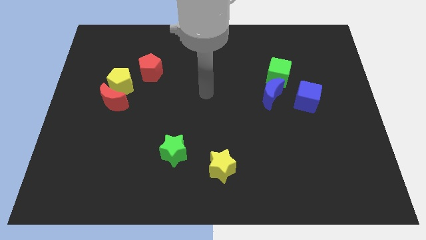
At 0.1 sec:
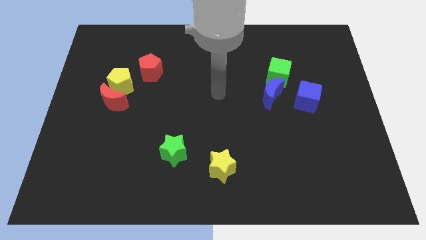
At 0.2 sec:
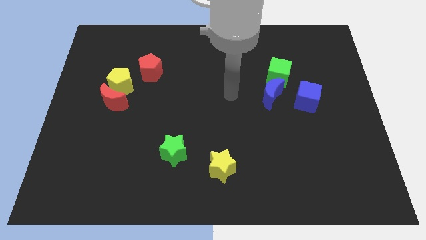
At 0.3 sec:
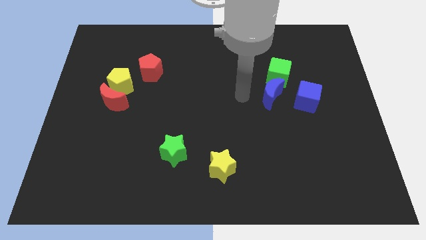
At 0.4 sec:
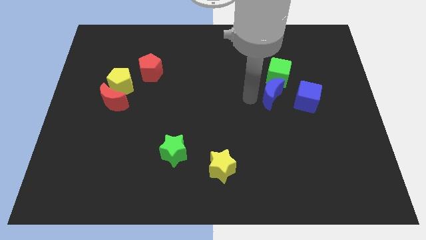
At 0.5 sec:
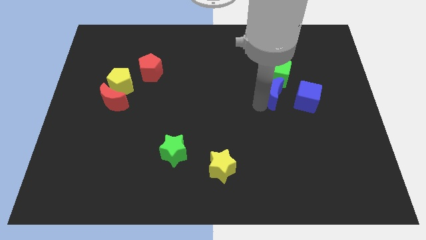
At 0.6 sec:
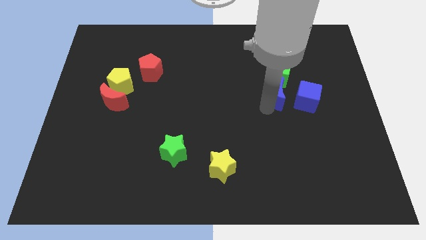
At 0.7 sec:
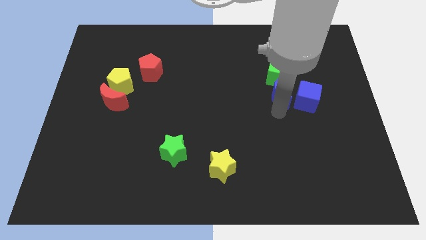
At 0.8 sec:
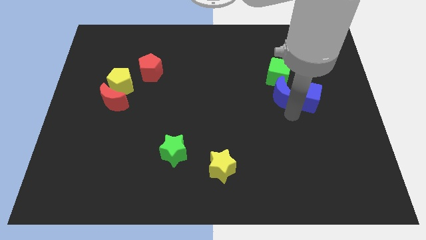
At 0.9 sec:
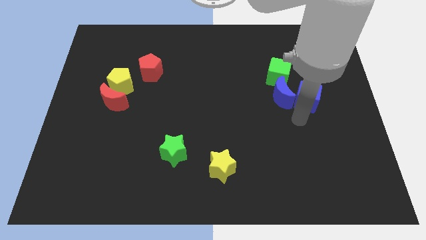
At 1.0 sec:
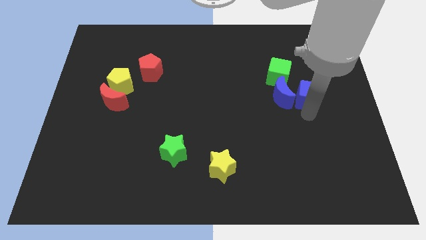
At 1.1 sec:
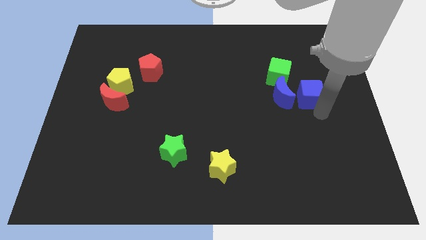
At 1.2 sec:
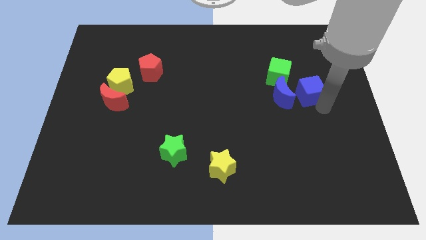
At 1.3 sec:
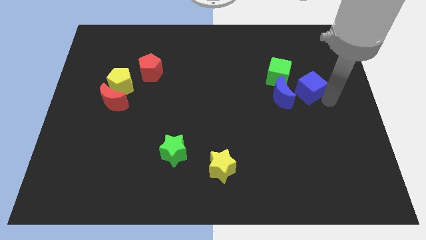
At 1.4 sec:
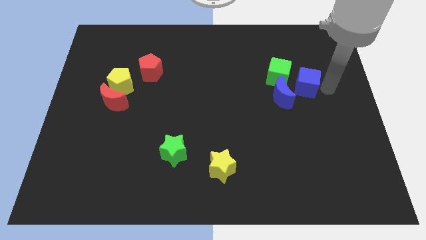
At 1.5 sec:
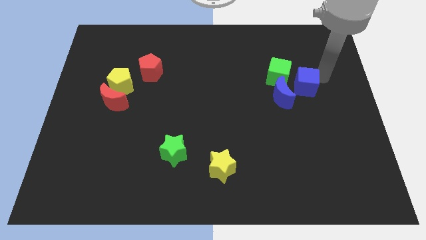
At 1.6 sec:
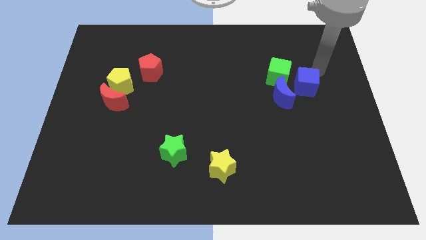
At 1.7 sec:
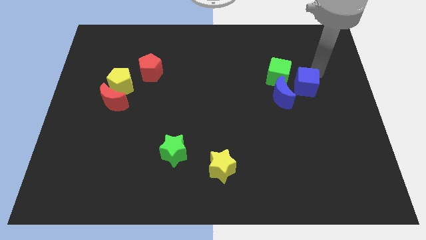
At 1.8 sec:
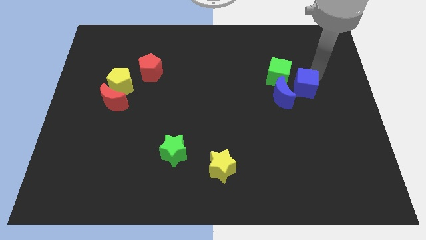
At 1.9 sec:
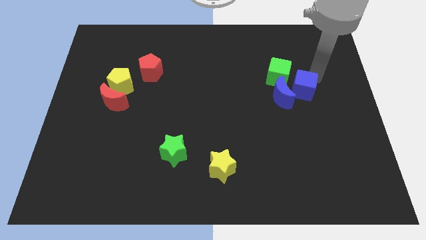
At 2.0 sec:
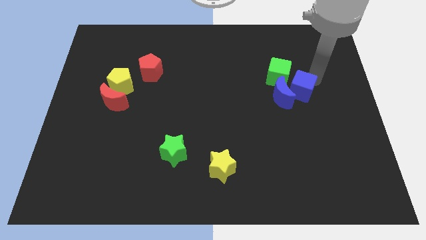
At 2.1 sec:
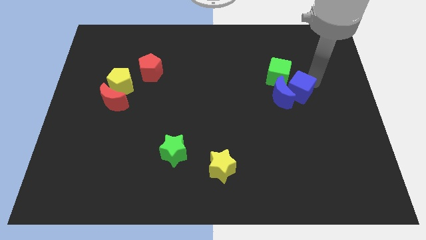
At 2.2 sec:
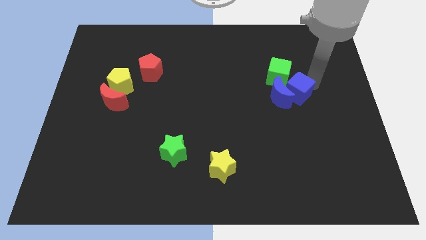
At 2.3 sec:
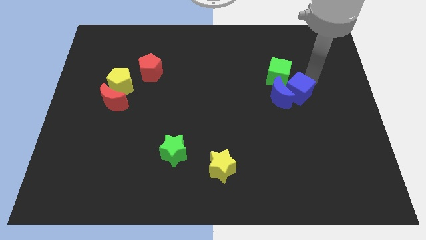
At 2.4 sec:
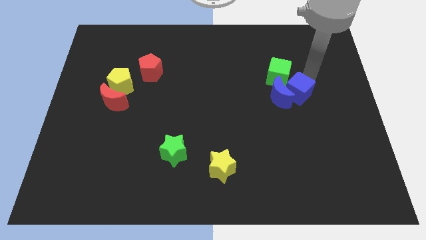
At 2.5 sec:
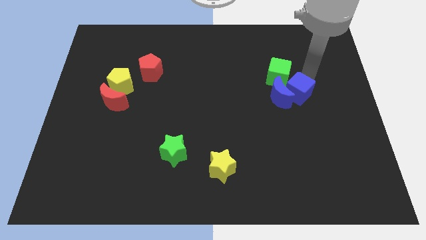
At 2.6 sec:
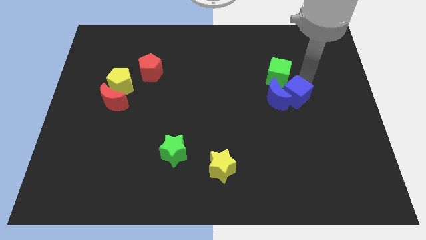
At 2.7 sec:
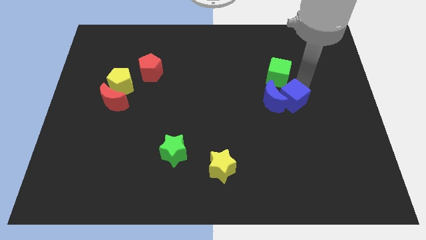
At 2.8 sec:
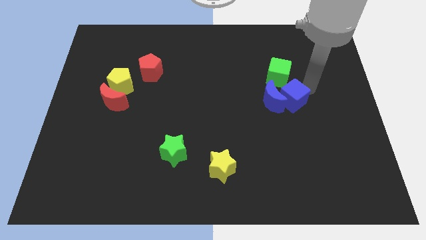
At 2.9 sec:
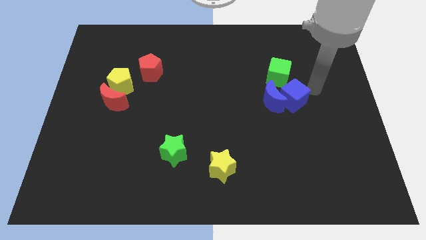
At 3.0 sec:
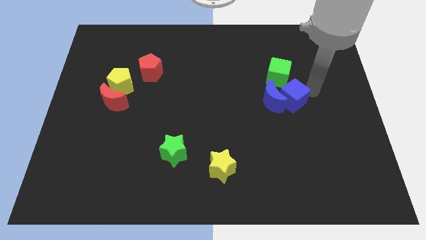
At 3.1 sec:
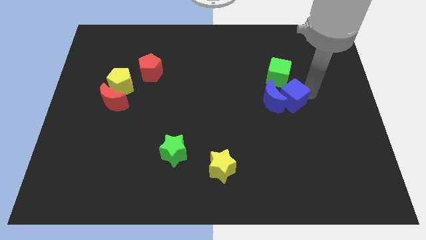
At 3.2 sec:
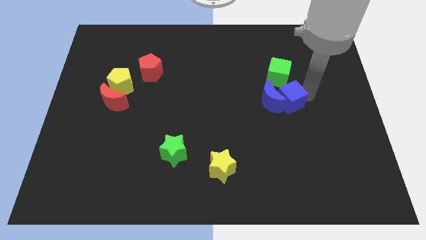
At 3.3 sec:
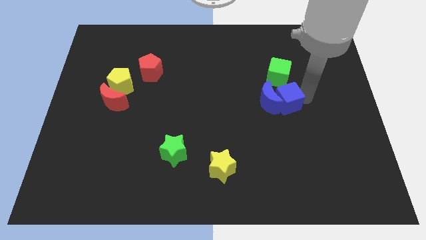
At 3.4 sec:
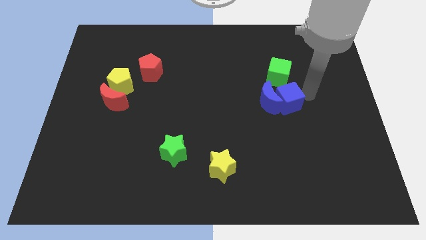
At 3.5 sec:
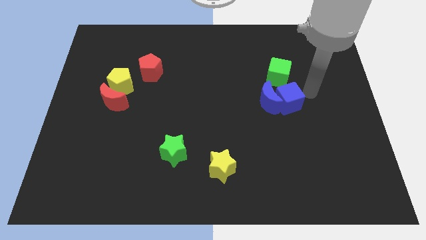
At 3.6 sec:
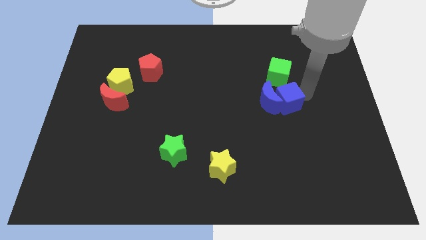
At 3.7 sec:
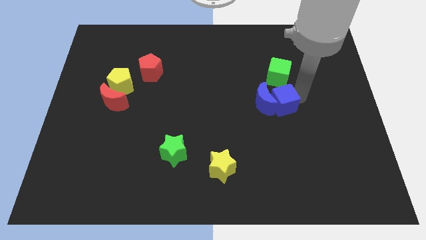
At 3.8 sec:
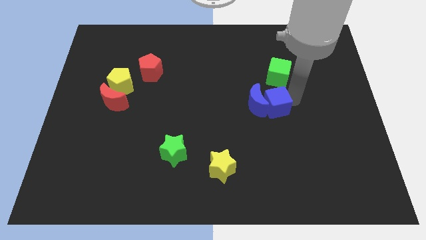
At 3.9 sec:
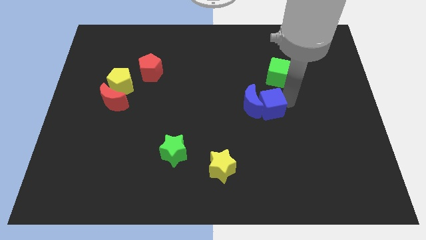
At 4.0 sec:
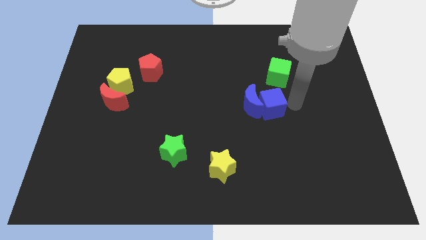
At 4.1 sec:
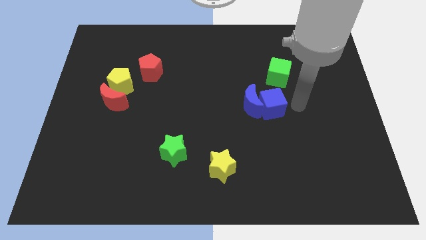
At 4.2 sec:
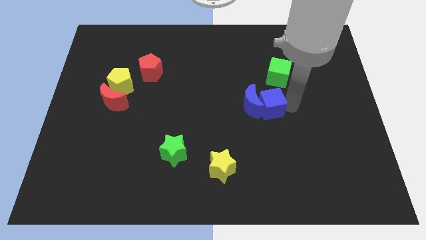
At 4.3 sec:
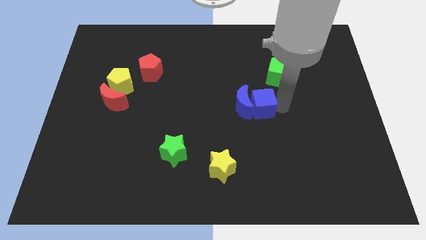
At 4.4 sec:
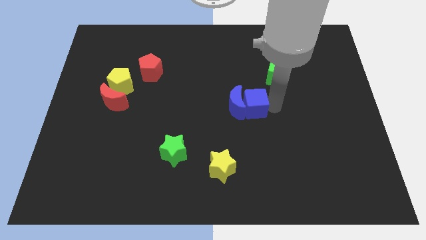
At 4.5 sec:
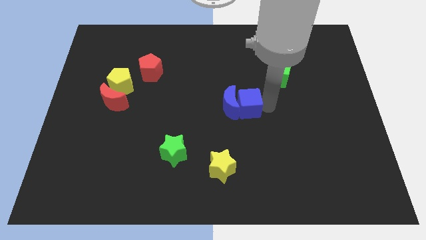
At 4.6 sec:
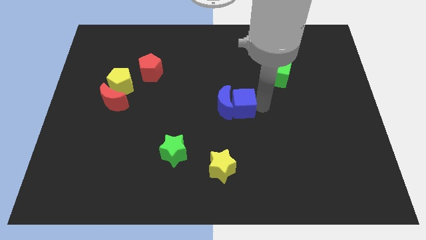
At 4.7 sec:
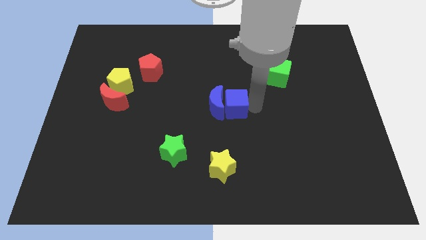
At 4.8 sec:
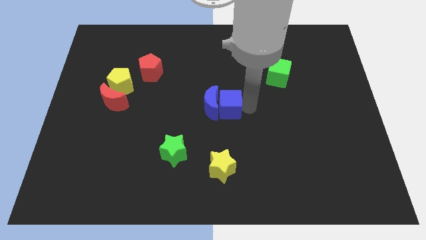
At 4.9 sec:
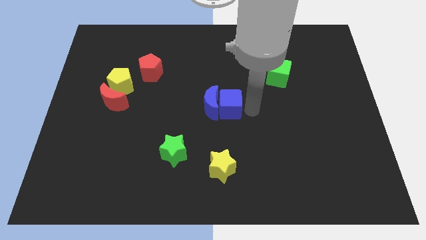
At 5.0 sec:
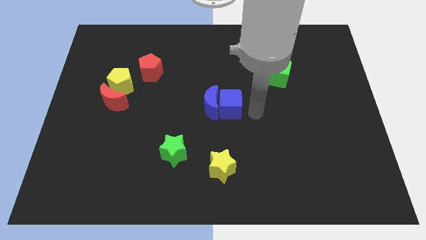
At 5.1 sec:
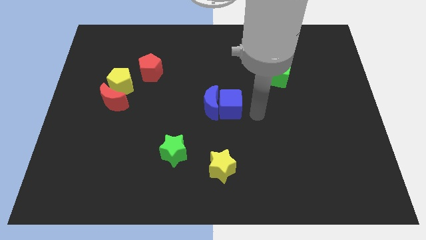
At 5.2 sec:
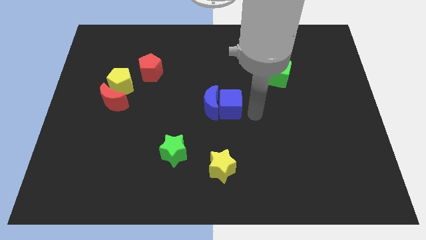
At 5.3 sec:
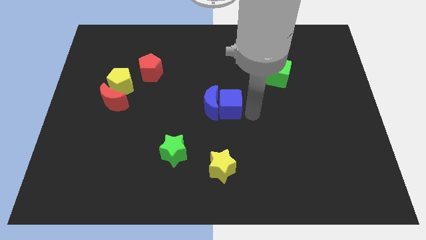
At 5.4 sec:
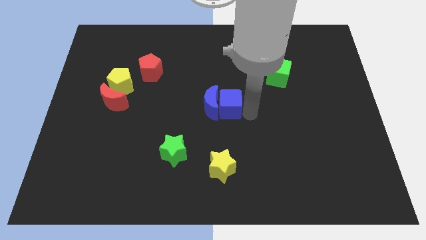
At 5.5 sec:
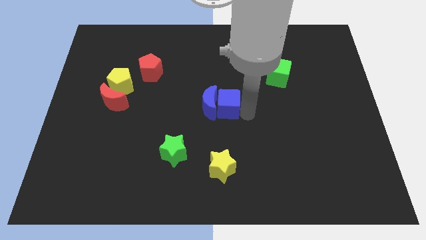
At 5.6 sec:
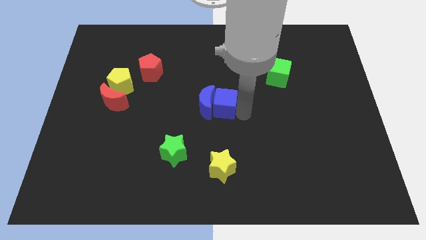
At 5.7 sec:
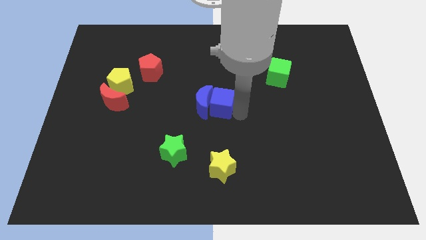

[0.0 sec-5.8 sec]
push the blue cube left

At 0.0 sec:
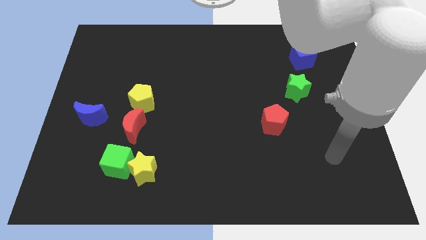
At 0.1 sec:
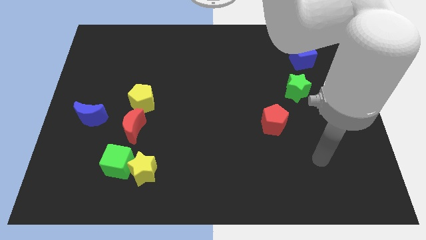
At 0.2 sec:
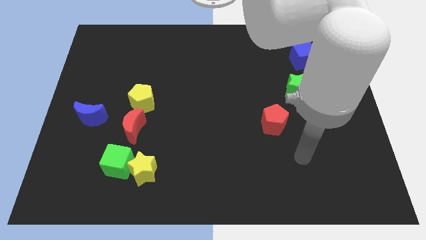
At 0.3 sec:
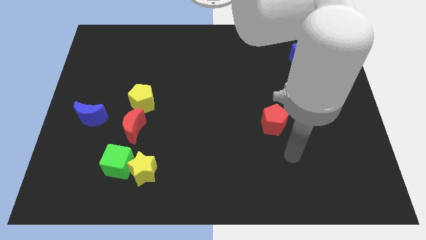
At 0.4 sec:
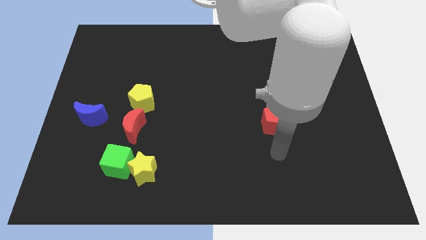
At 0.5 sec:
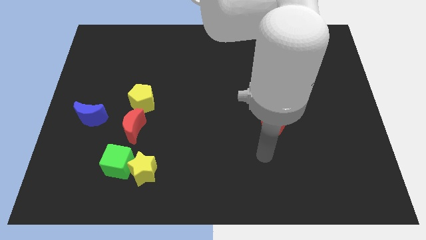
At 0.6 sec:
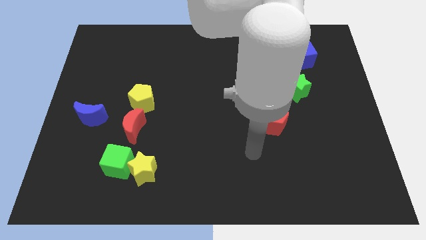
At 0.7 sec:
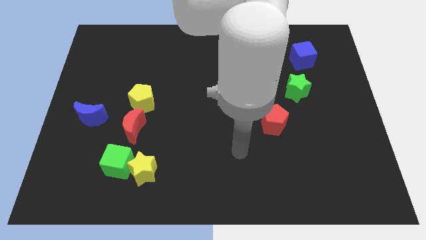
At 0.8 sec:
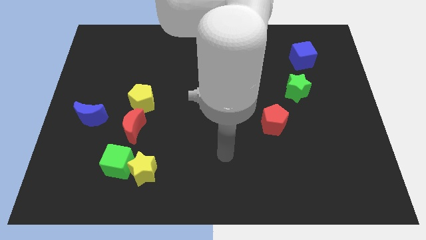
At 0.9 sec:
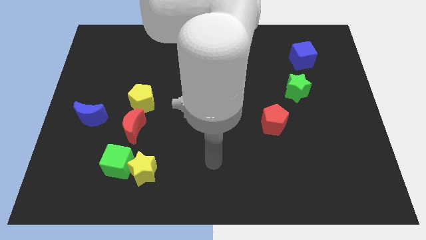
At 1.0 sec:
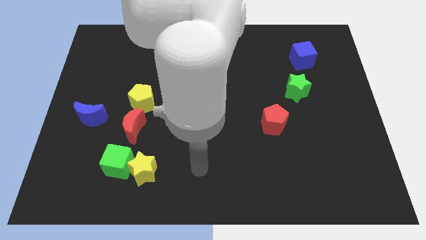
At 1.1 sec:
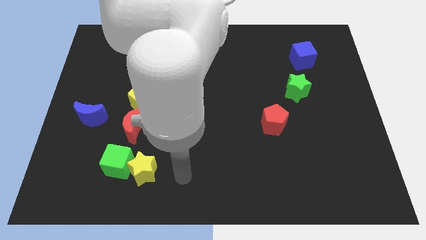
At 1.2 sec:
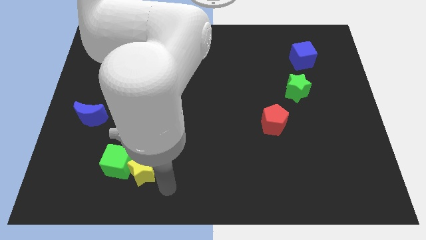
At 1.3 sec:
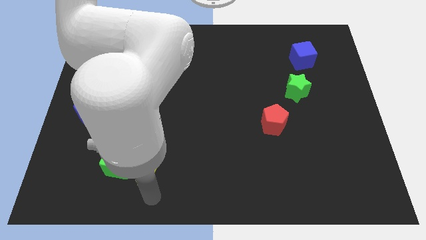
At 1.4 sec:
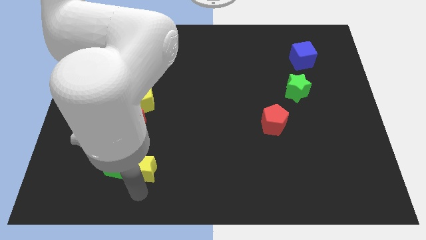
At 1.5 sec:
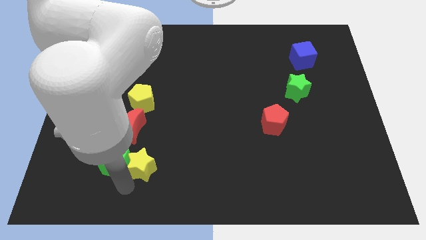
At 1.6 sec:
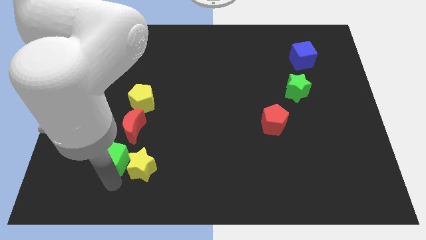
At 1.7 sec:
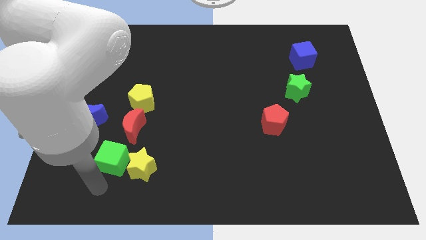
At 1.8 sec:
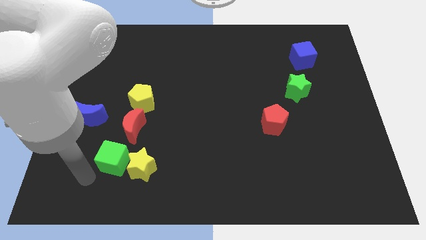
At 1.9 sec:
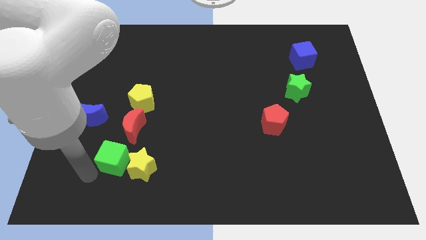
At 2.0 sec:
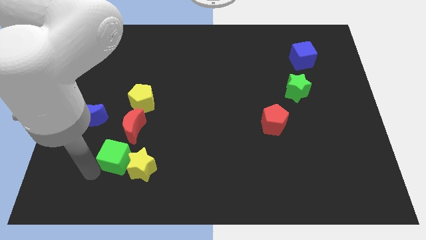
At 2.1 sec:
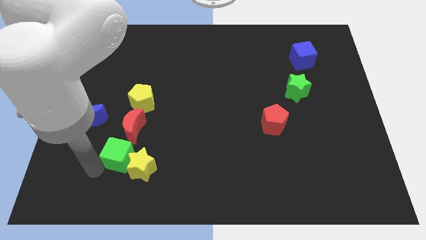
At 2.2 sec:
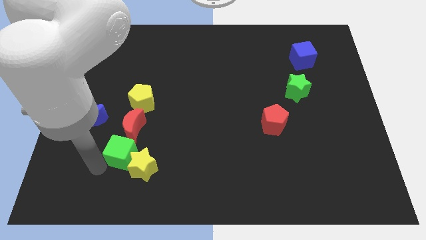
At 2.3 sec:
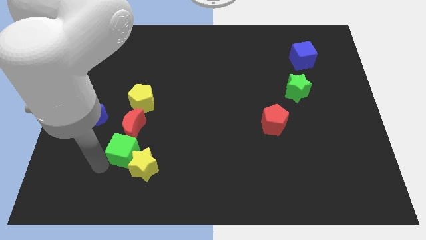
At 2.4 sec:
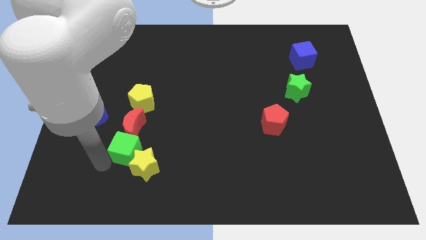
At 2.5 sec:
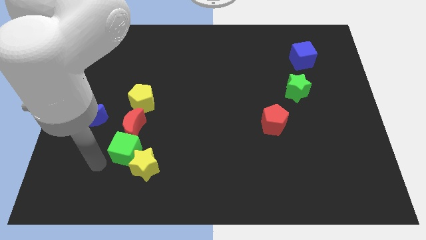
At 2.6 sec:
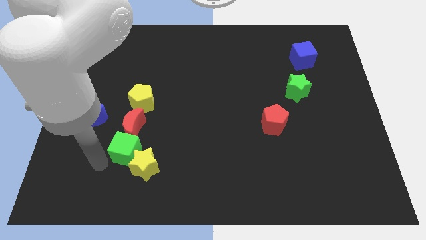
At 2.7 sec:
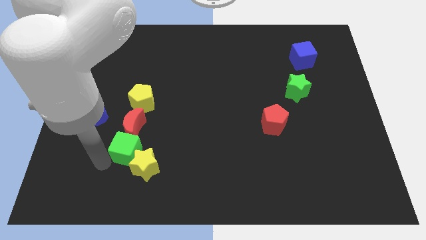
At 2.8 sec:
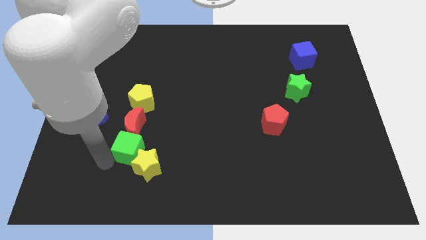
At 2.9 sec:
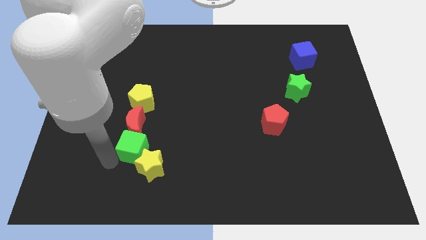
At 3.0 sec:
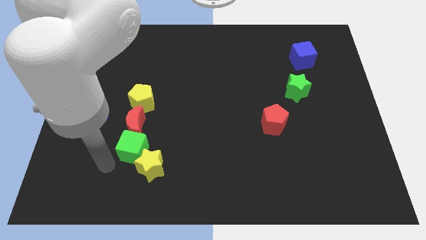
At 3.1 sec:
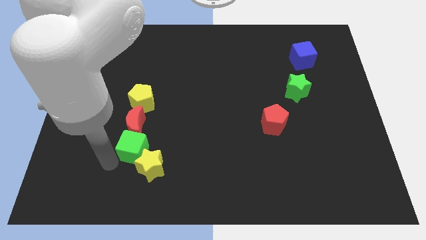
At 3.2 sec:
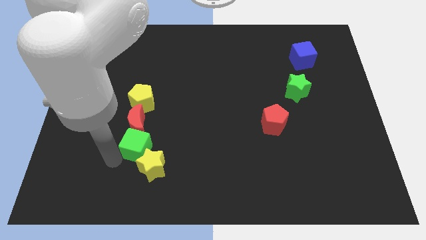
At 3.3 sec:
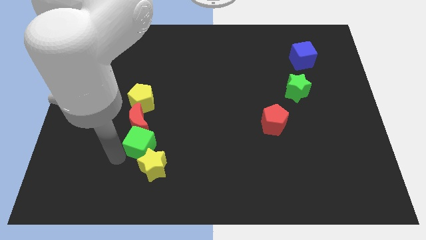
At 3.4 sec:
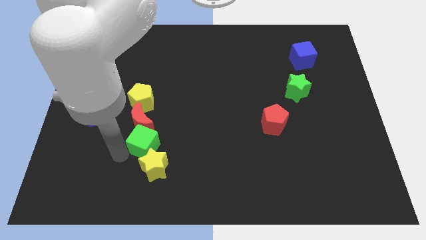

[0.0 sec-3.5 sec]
slightly move the green cube upwards and to the right
